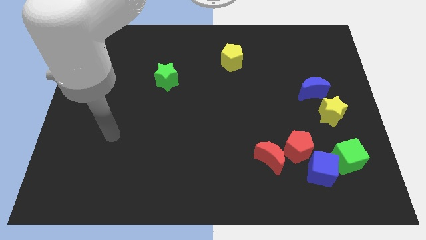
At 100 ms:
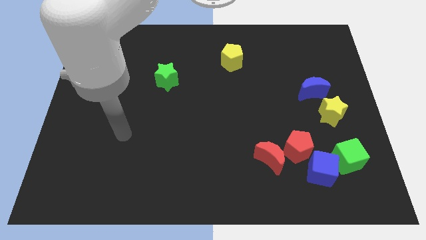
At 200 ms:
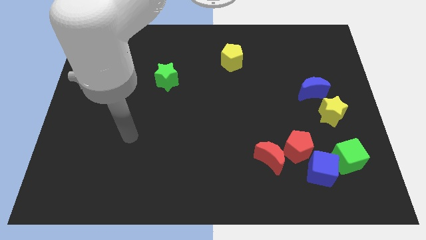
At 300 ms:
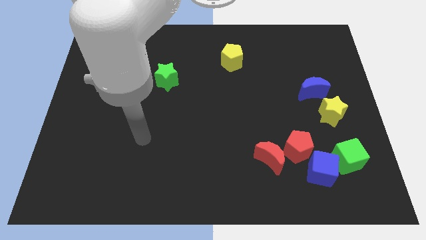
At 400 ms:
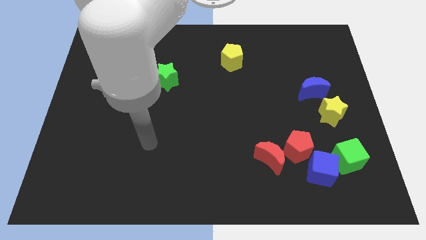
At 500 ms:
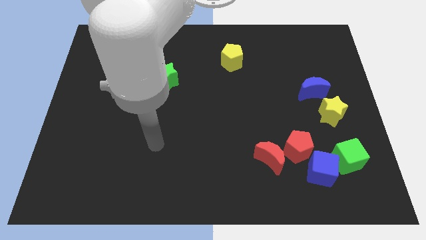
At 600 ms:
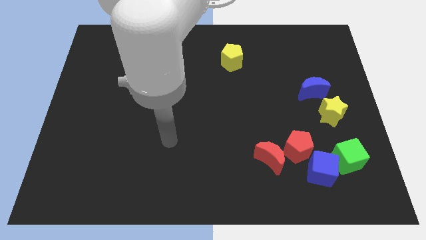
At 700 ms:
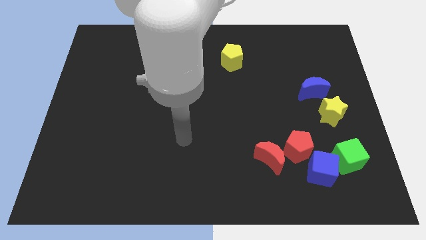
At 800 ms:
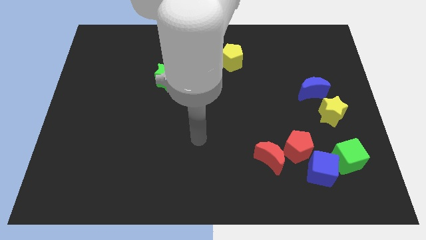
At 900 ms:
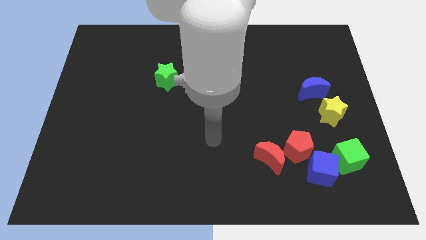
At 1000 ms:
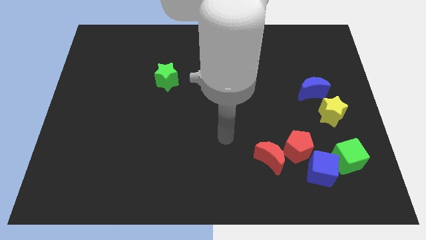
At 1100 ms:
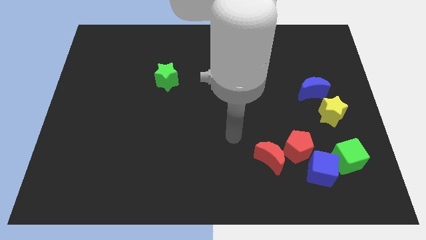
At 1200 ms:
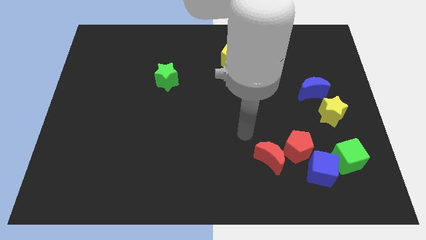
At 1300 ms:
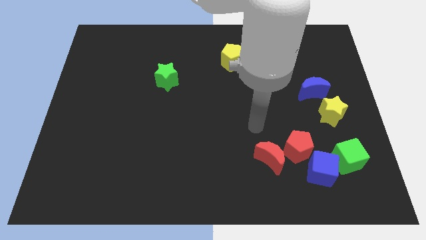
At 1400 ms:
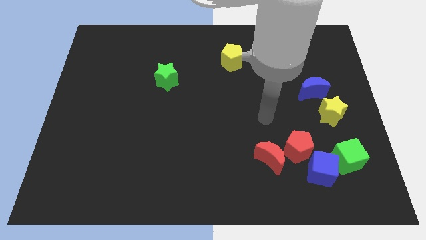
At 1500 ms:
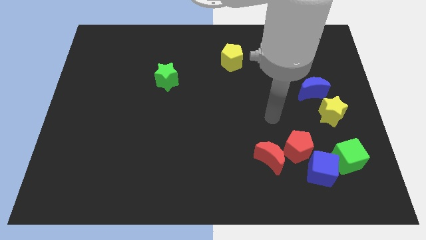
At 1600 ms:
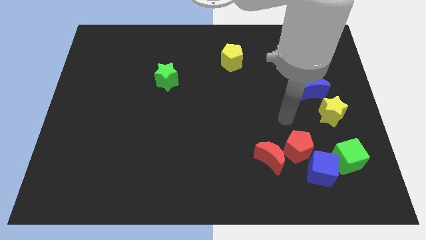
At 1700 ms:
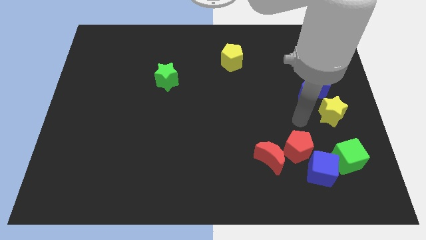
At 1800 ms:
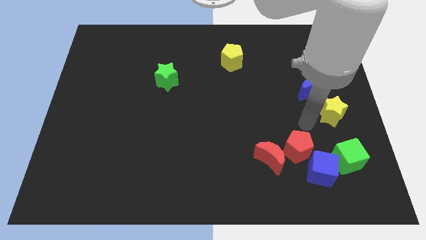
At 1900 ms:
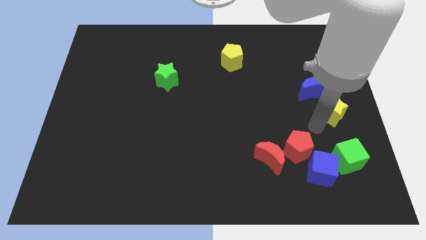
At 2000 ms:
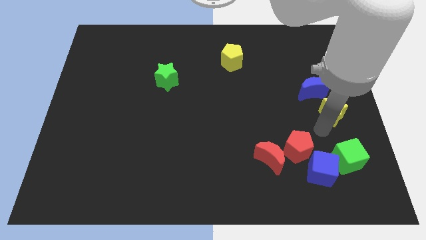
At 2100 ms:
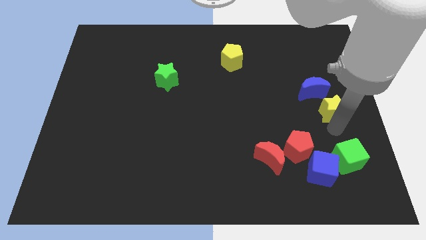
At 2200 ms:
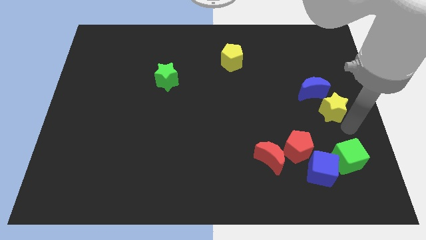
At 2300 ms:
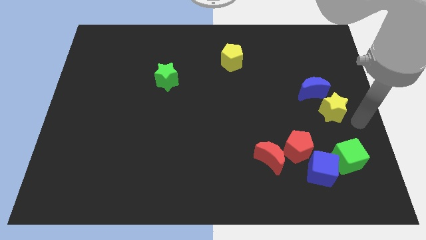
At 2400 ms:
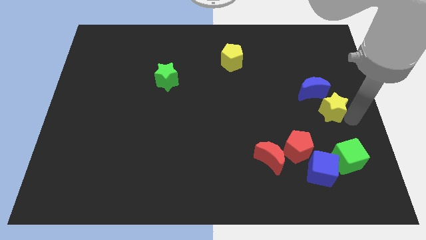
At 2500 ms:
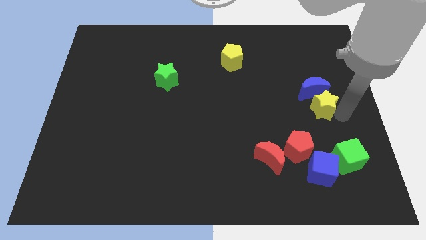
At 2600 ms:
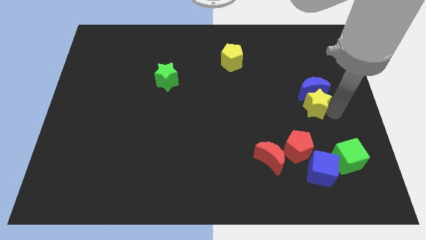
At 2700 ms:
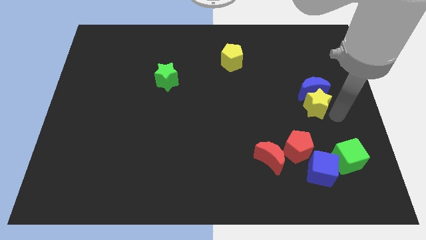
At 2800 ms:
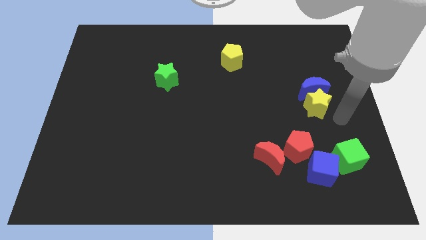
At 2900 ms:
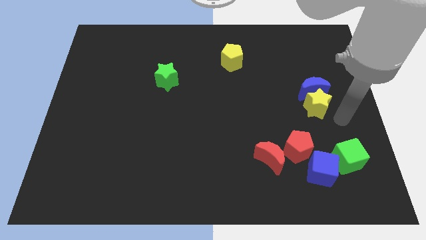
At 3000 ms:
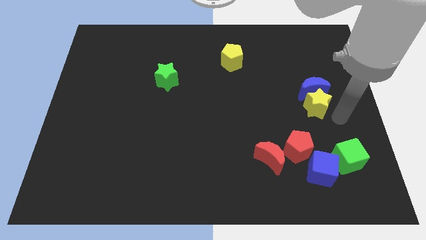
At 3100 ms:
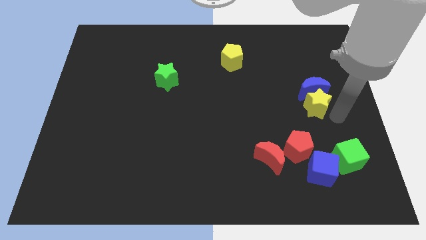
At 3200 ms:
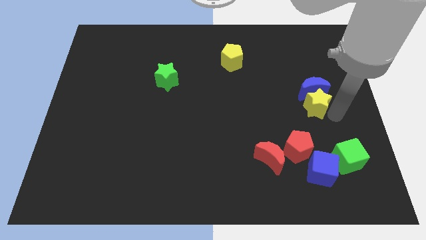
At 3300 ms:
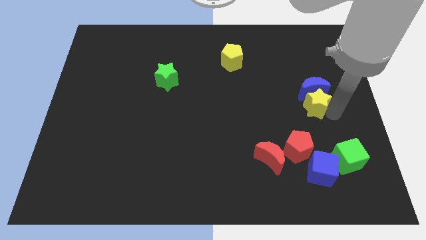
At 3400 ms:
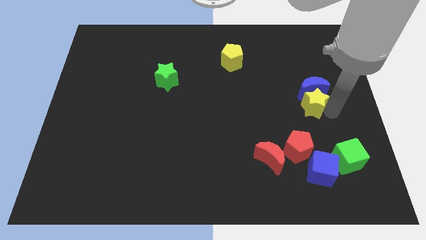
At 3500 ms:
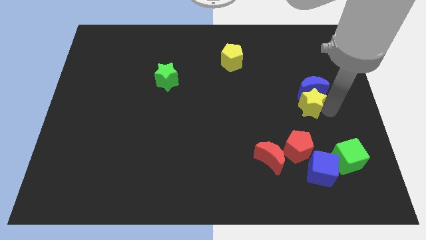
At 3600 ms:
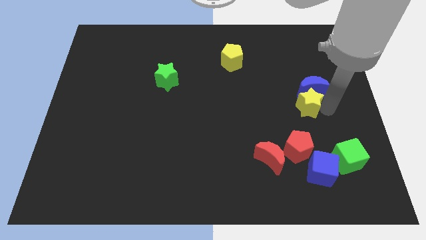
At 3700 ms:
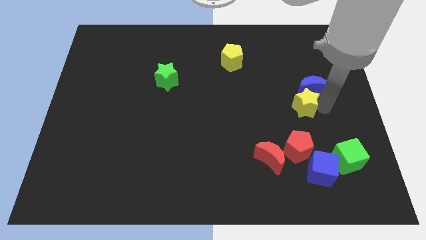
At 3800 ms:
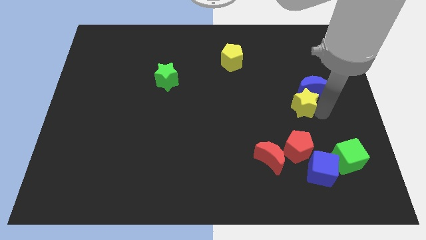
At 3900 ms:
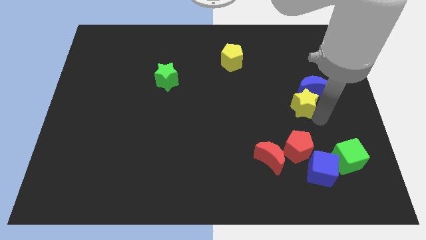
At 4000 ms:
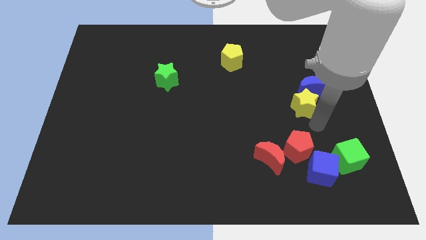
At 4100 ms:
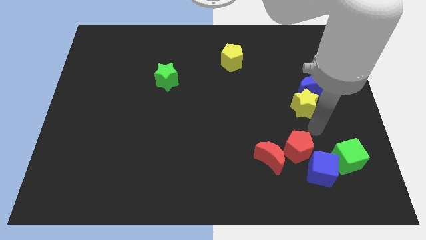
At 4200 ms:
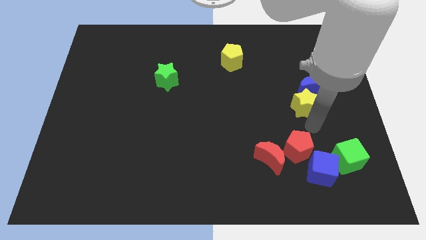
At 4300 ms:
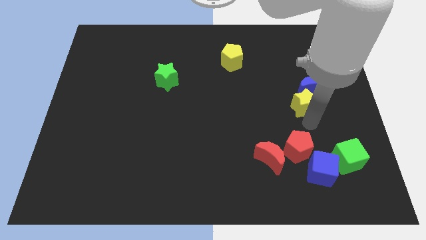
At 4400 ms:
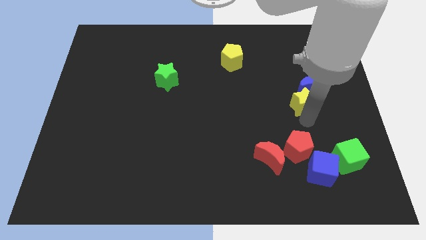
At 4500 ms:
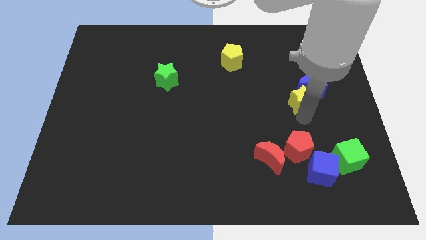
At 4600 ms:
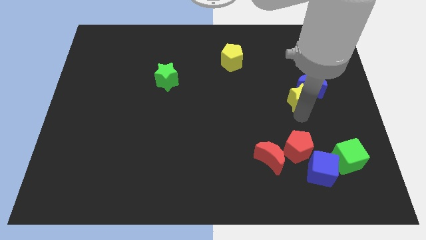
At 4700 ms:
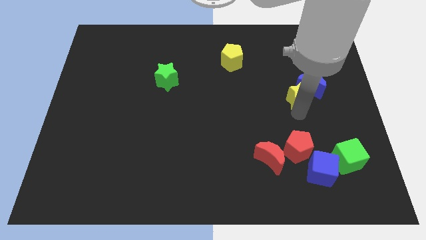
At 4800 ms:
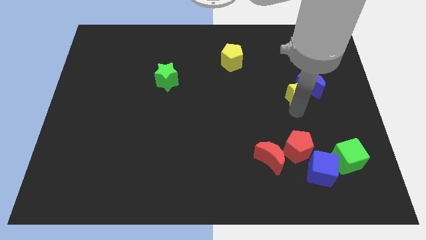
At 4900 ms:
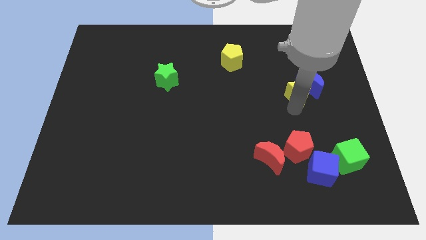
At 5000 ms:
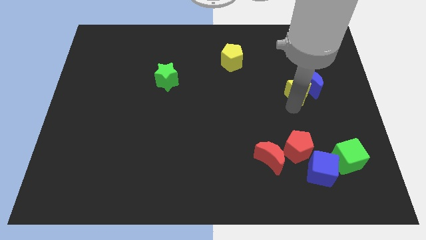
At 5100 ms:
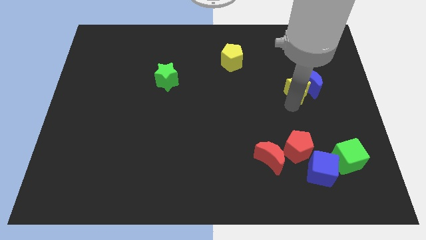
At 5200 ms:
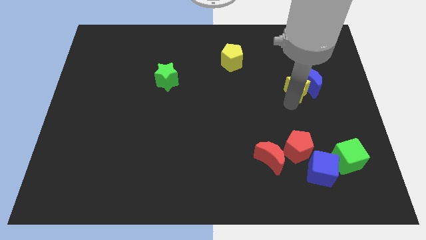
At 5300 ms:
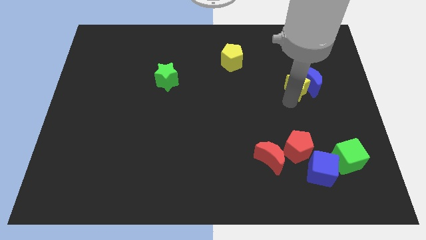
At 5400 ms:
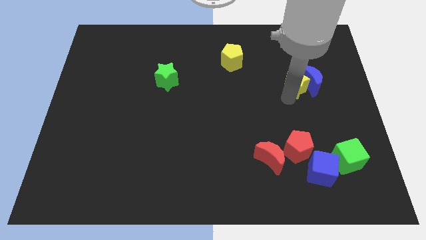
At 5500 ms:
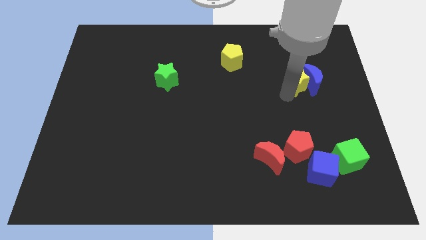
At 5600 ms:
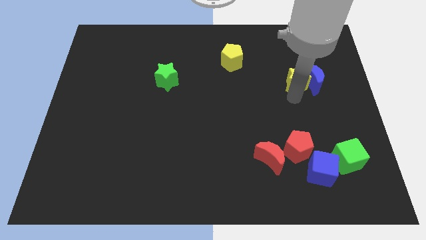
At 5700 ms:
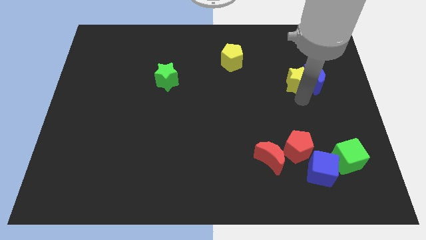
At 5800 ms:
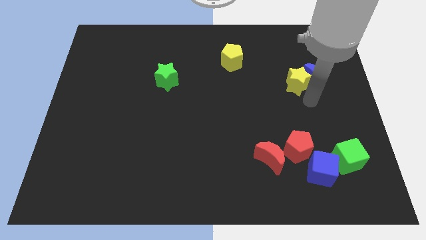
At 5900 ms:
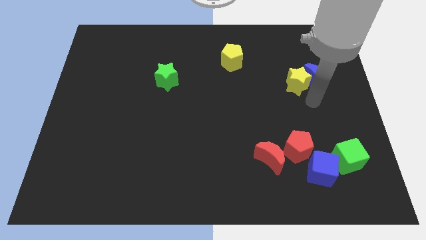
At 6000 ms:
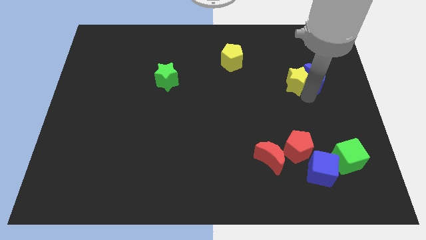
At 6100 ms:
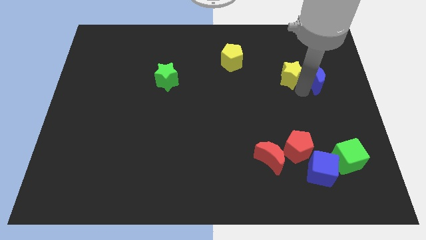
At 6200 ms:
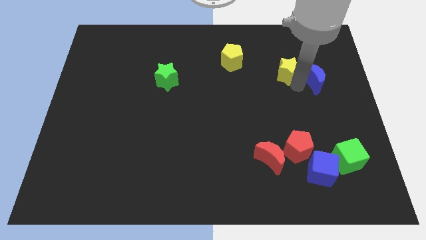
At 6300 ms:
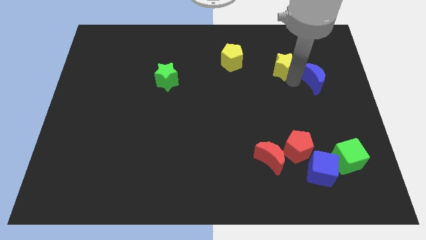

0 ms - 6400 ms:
push the yellow star just right of the yellow pentagon

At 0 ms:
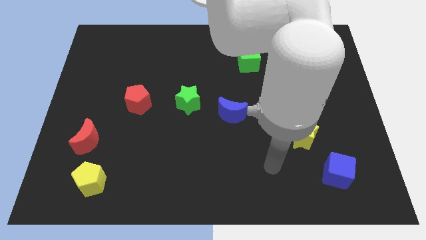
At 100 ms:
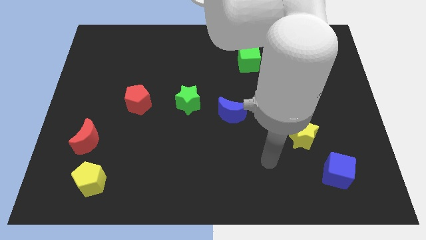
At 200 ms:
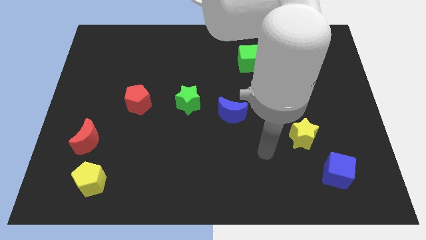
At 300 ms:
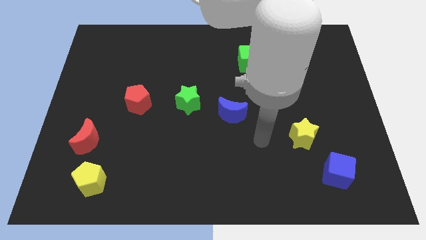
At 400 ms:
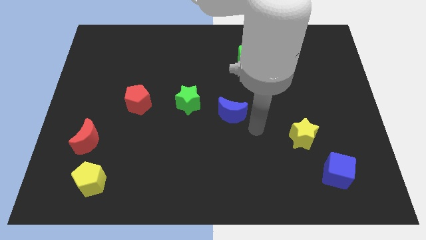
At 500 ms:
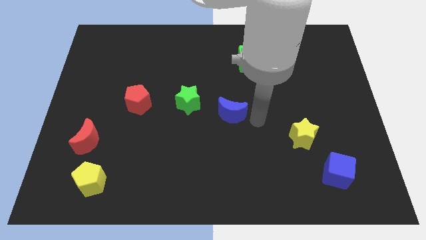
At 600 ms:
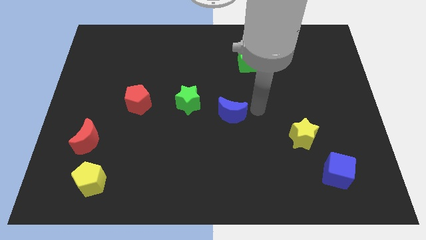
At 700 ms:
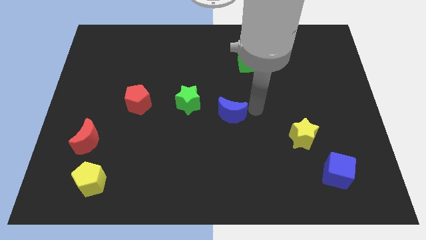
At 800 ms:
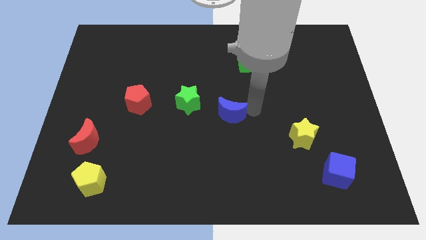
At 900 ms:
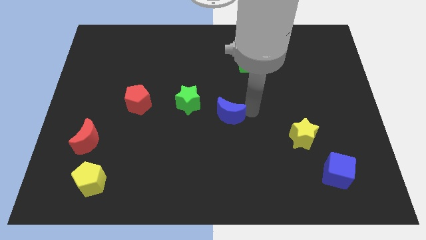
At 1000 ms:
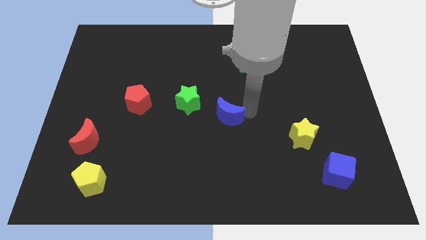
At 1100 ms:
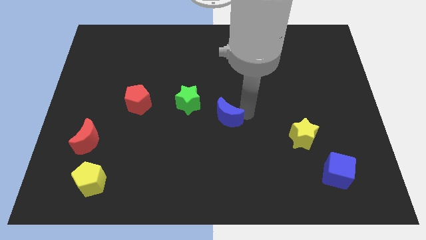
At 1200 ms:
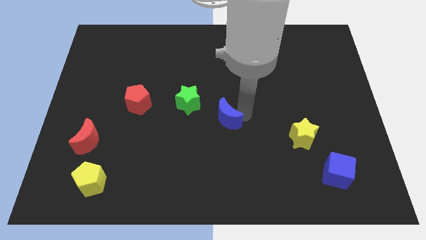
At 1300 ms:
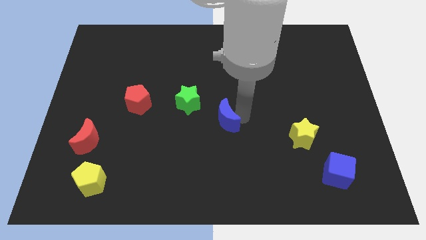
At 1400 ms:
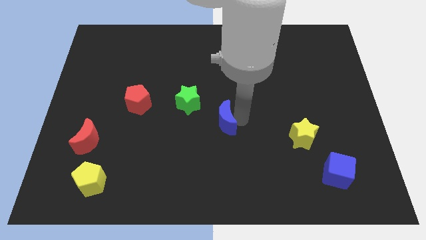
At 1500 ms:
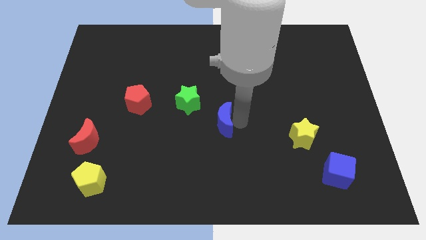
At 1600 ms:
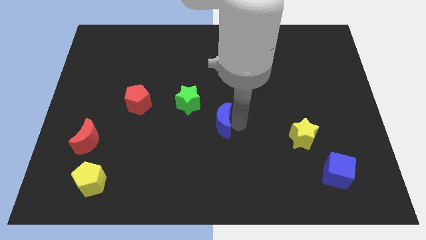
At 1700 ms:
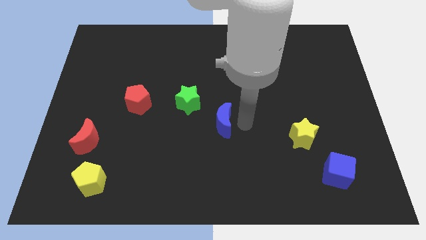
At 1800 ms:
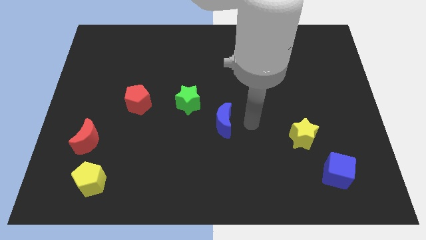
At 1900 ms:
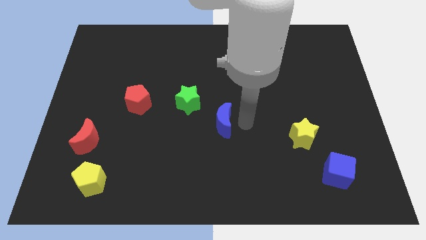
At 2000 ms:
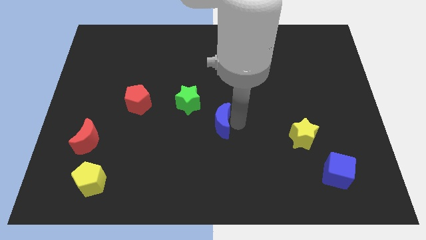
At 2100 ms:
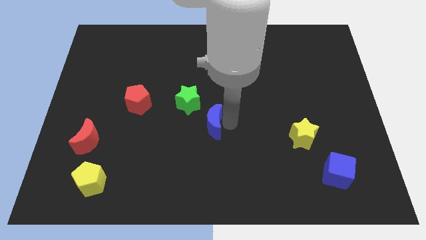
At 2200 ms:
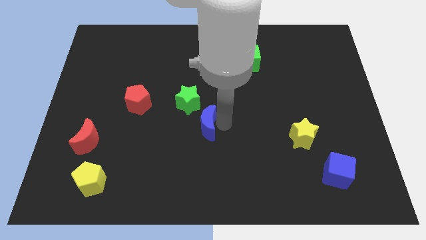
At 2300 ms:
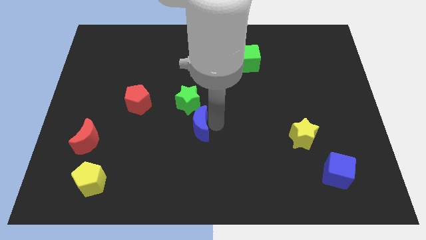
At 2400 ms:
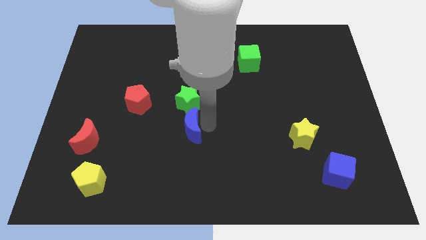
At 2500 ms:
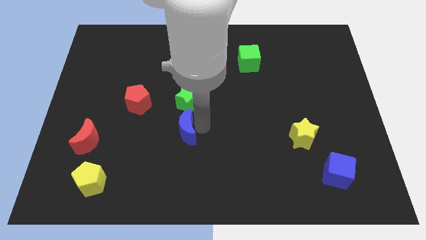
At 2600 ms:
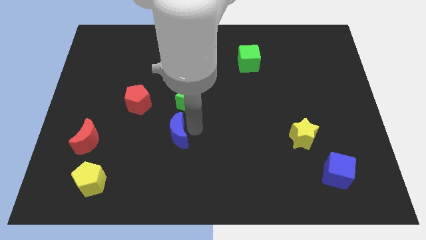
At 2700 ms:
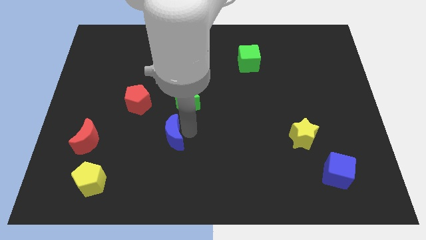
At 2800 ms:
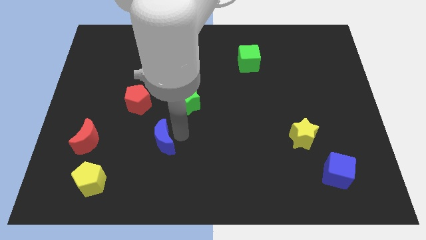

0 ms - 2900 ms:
put the blue moon just right of the red moon
